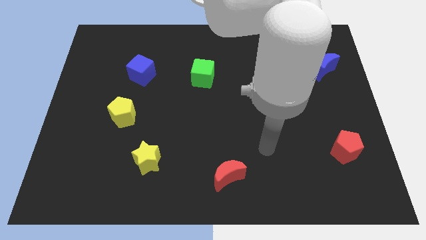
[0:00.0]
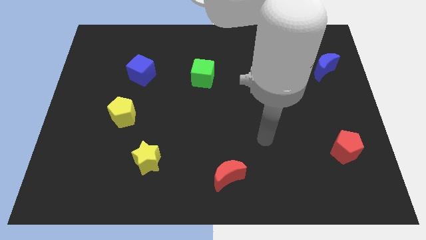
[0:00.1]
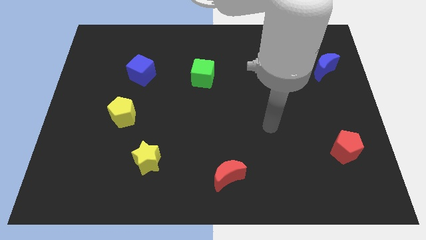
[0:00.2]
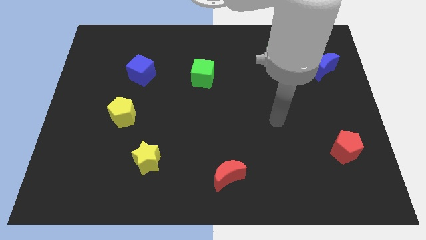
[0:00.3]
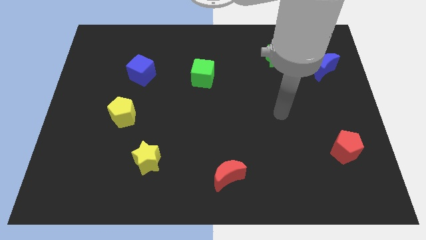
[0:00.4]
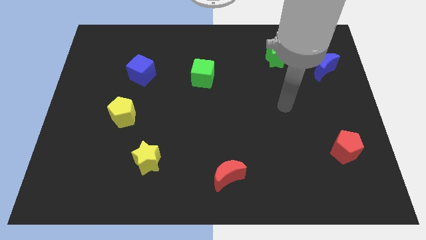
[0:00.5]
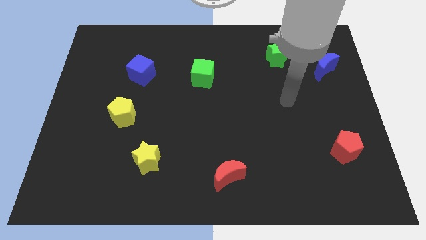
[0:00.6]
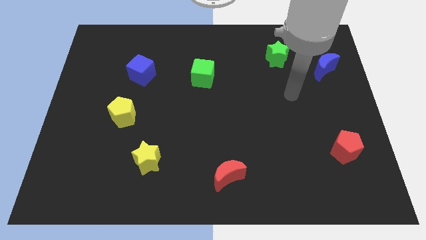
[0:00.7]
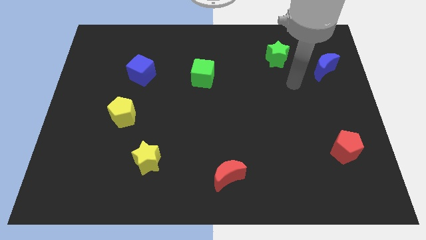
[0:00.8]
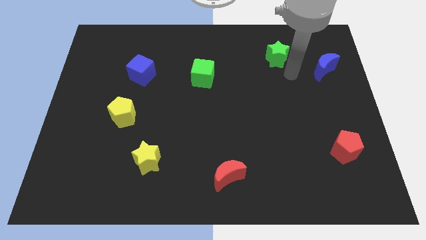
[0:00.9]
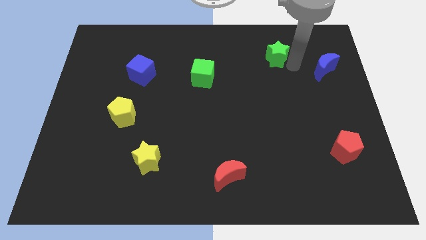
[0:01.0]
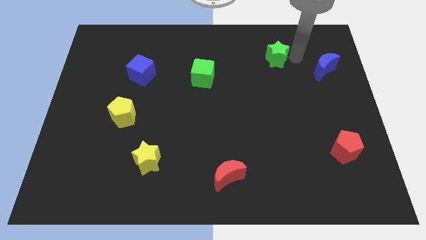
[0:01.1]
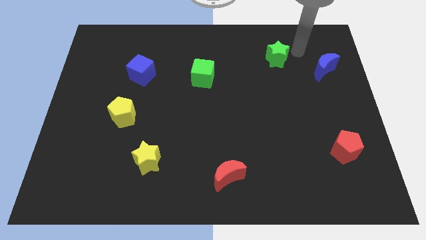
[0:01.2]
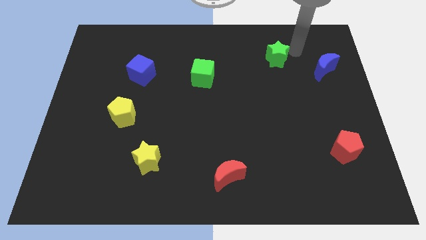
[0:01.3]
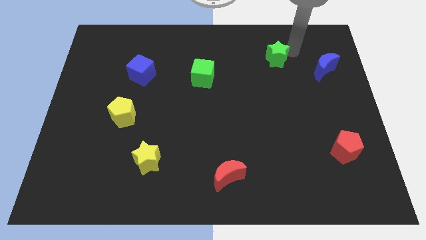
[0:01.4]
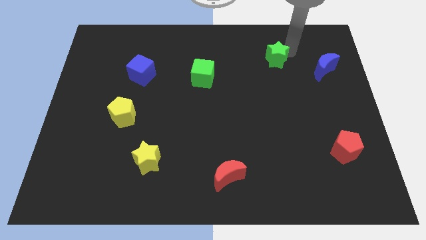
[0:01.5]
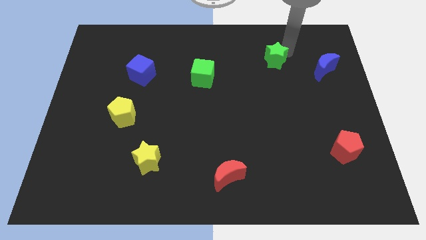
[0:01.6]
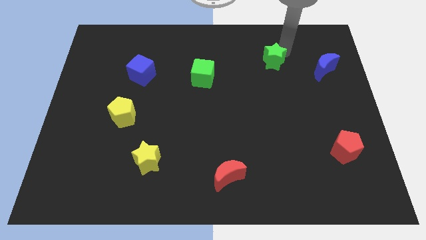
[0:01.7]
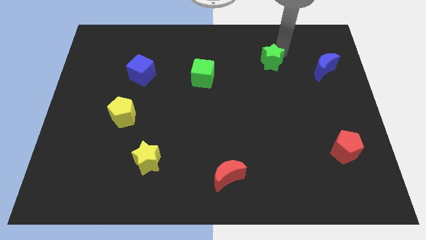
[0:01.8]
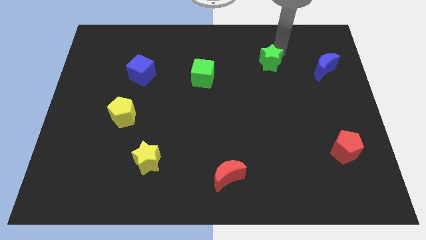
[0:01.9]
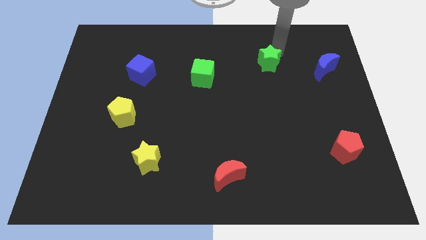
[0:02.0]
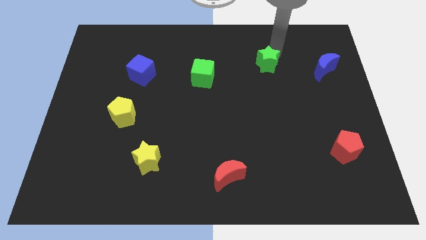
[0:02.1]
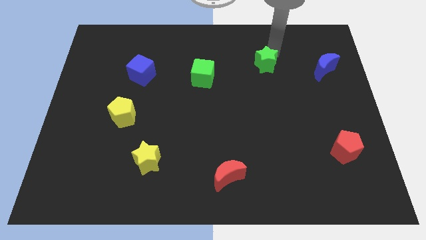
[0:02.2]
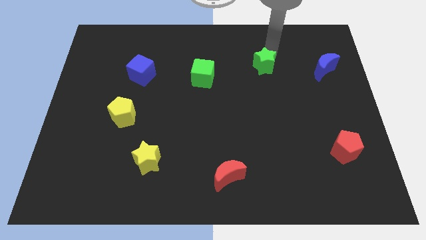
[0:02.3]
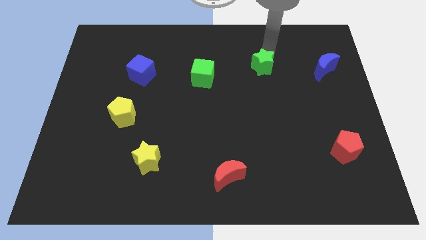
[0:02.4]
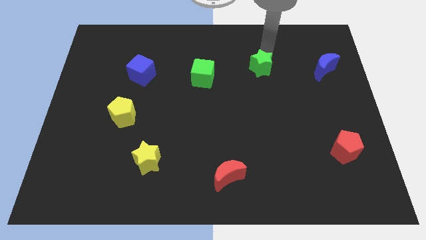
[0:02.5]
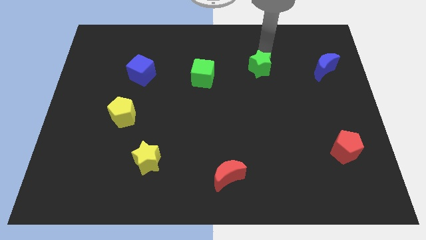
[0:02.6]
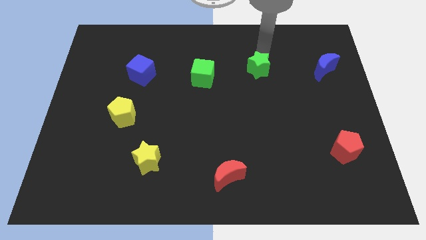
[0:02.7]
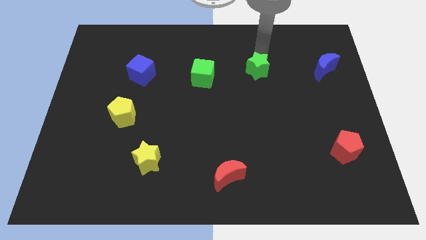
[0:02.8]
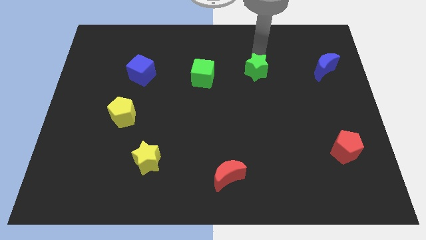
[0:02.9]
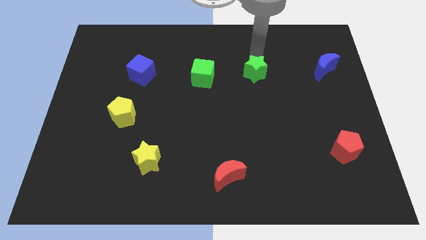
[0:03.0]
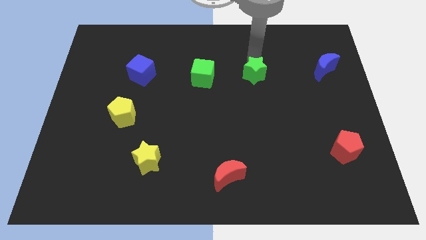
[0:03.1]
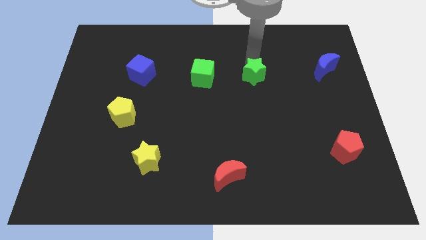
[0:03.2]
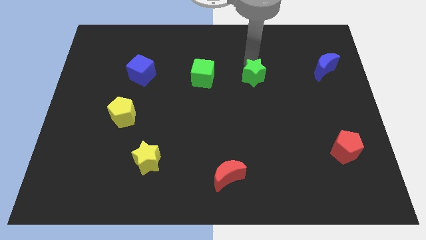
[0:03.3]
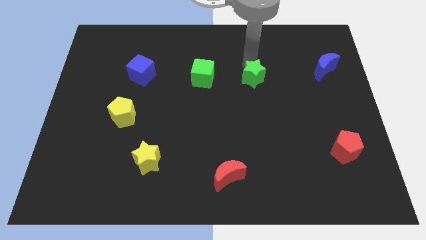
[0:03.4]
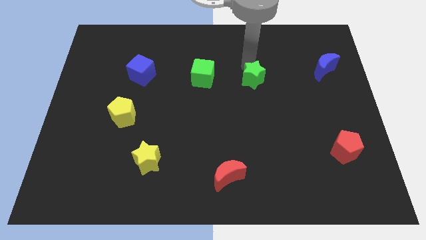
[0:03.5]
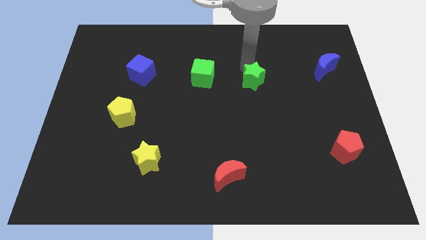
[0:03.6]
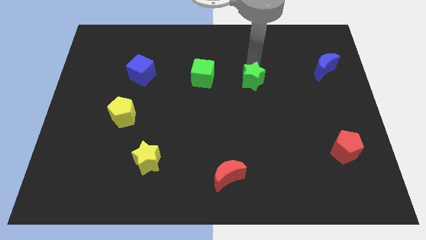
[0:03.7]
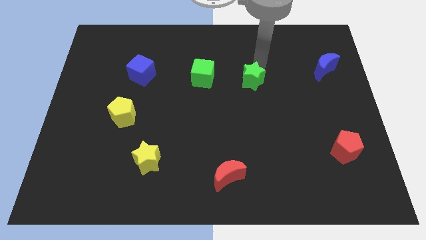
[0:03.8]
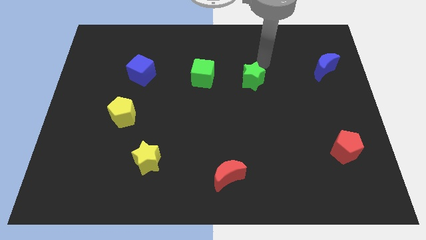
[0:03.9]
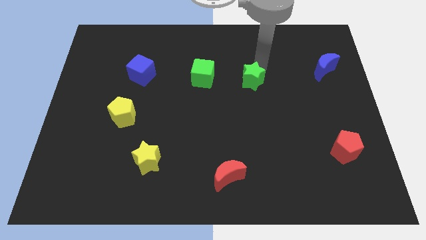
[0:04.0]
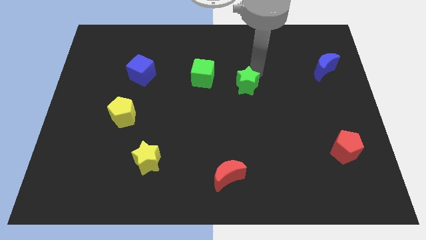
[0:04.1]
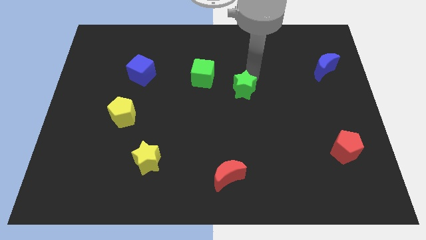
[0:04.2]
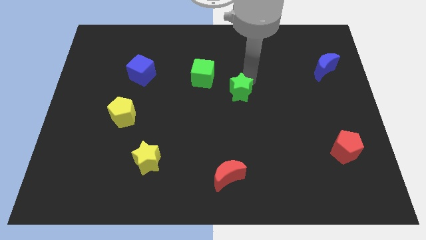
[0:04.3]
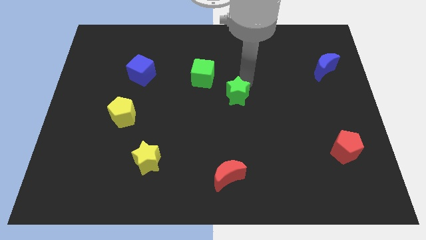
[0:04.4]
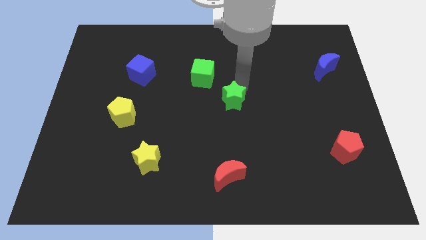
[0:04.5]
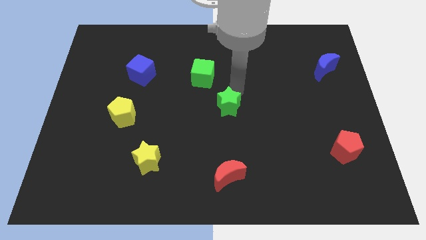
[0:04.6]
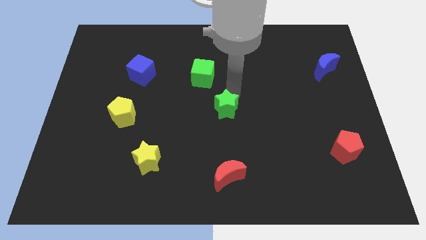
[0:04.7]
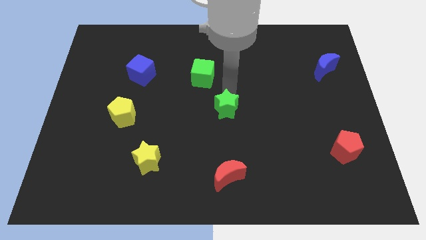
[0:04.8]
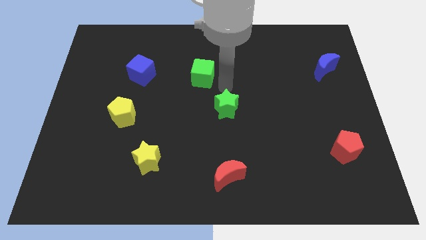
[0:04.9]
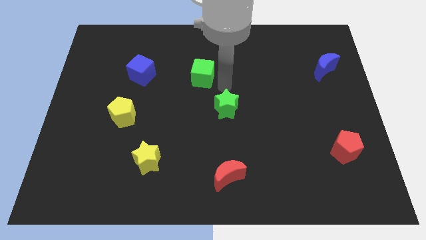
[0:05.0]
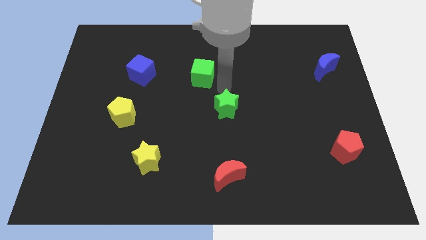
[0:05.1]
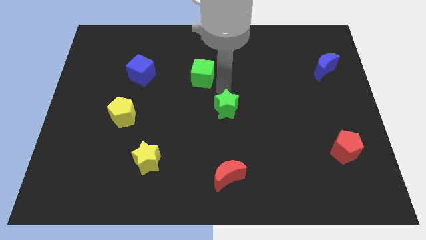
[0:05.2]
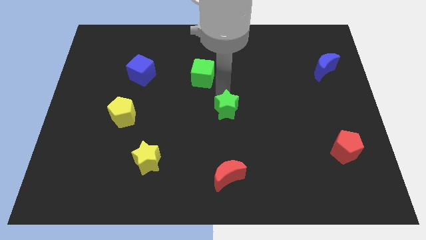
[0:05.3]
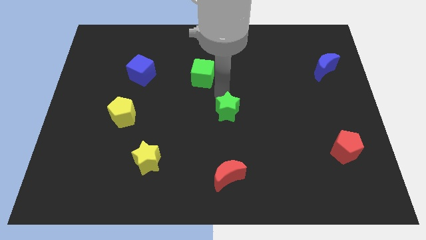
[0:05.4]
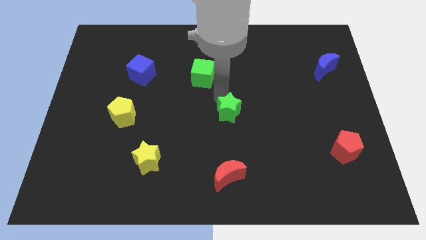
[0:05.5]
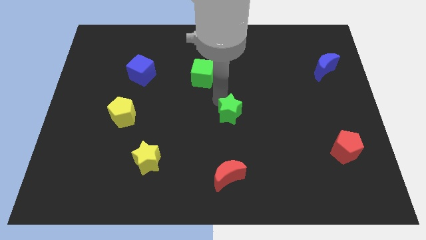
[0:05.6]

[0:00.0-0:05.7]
push the green star above the red moon
